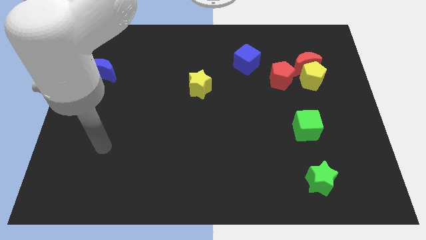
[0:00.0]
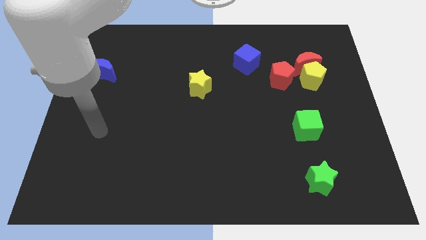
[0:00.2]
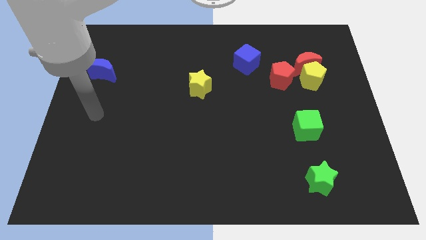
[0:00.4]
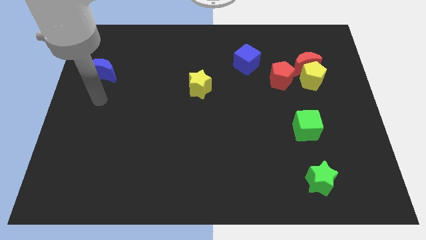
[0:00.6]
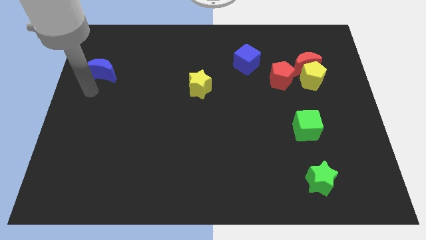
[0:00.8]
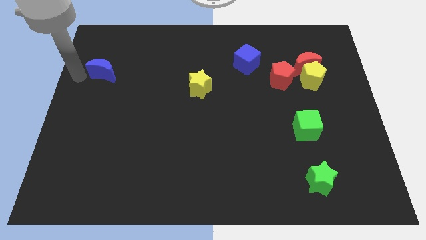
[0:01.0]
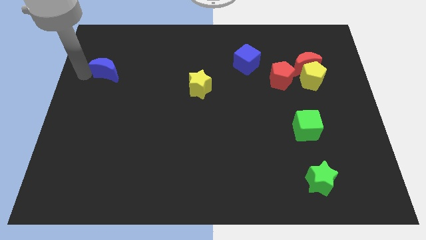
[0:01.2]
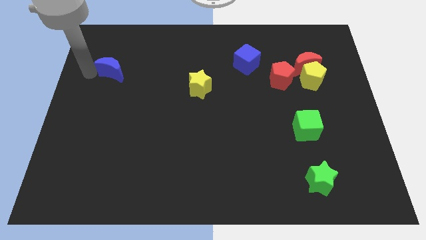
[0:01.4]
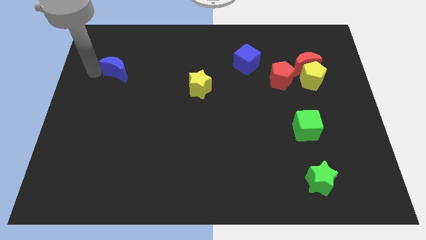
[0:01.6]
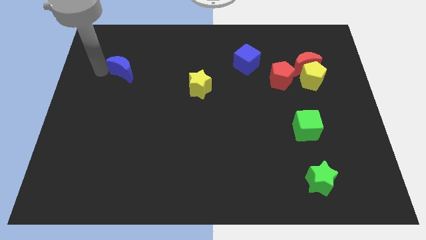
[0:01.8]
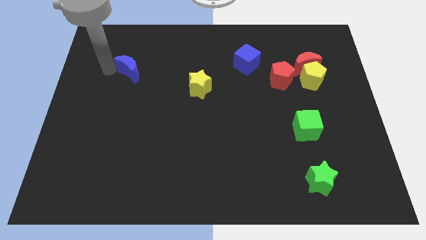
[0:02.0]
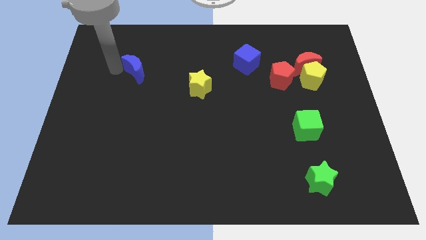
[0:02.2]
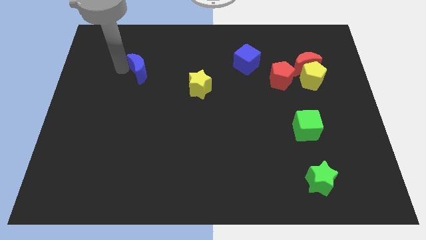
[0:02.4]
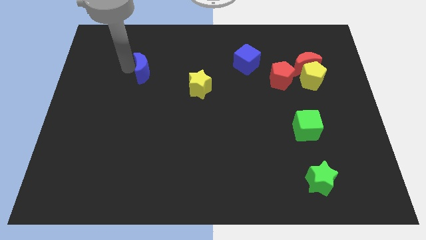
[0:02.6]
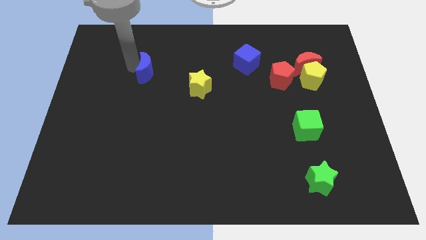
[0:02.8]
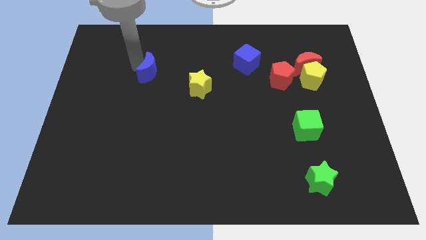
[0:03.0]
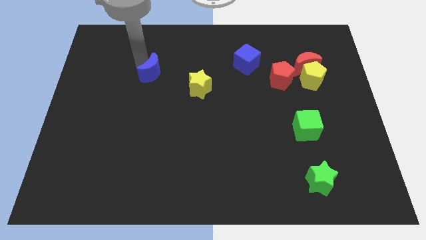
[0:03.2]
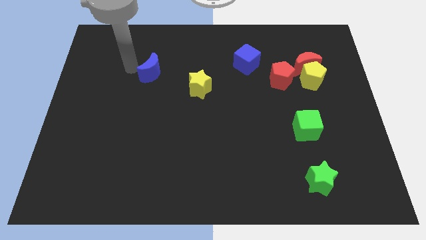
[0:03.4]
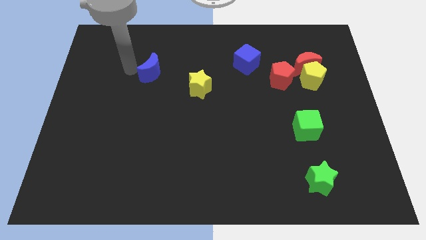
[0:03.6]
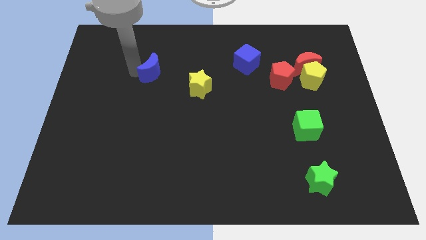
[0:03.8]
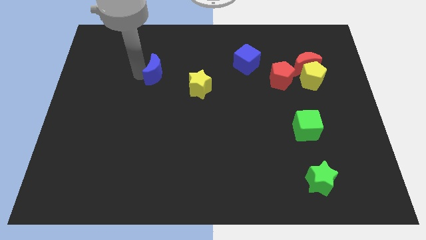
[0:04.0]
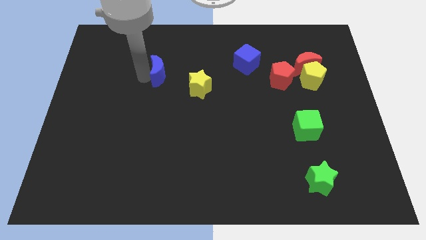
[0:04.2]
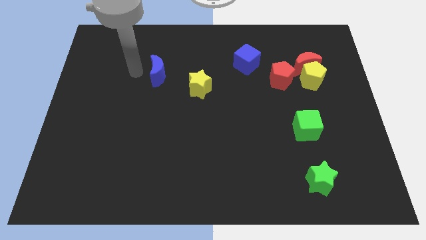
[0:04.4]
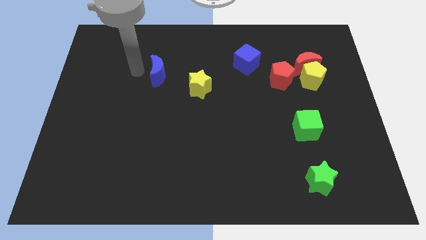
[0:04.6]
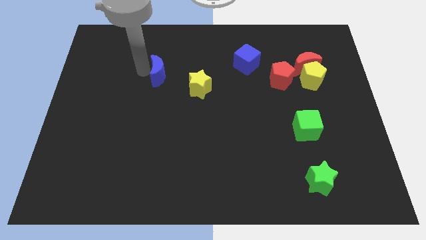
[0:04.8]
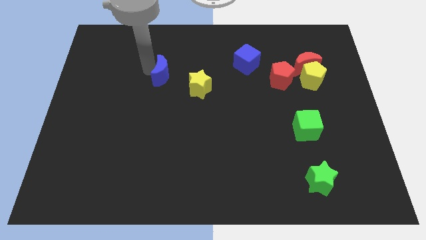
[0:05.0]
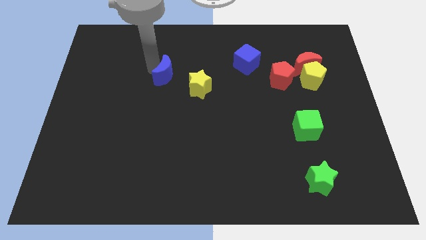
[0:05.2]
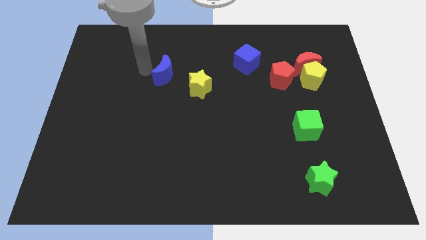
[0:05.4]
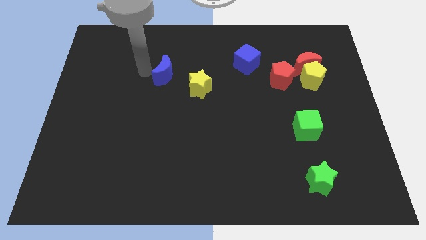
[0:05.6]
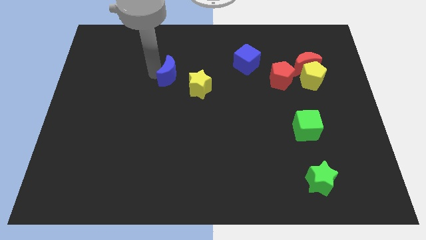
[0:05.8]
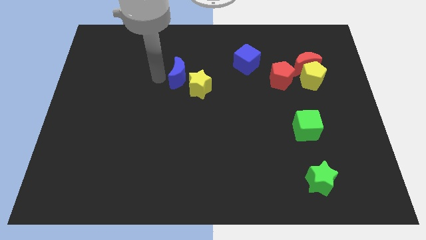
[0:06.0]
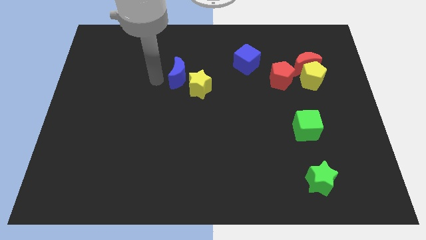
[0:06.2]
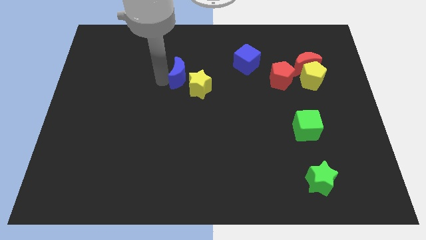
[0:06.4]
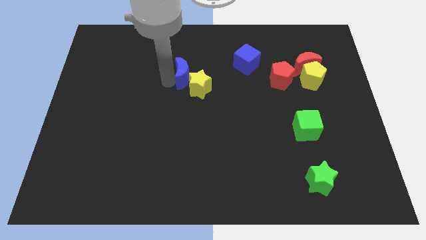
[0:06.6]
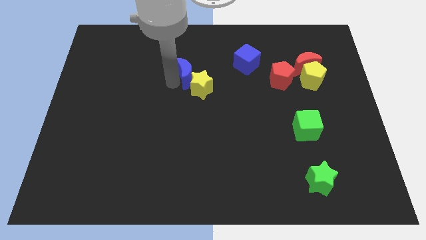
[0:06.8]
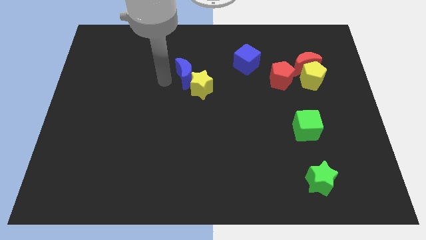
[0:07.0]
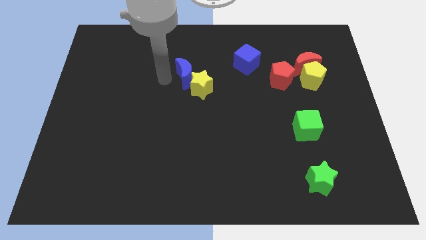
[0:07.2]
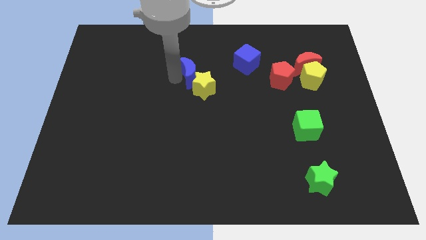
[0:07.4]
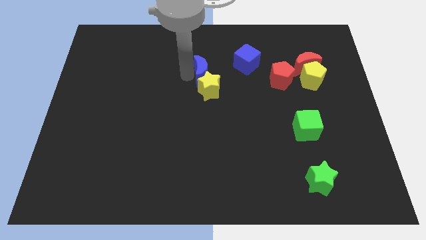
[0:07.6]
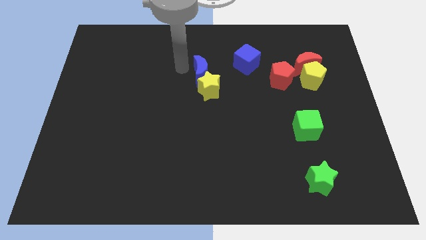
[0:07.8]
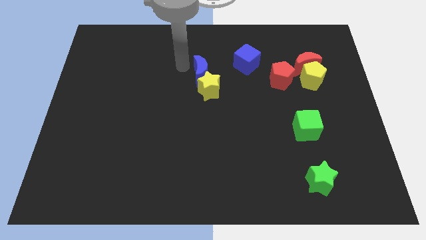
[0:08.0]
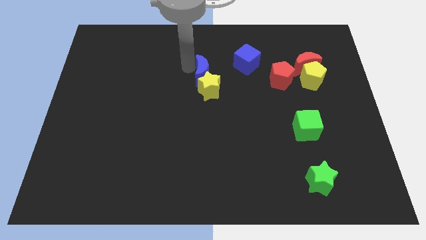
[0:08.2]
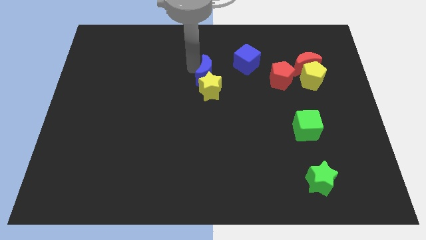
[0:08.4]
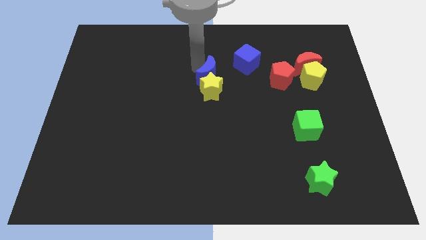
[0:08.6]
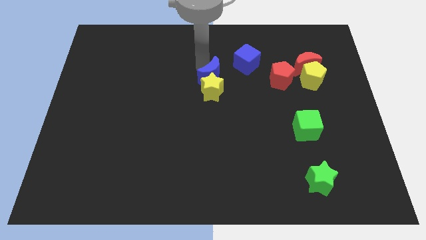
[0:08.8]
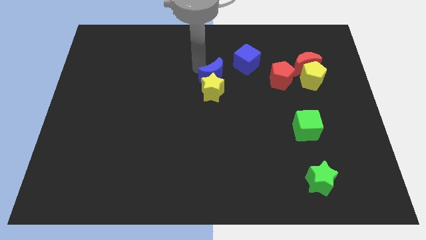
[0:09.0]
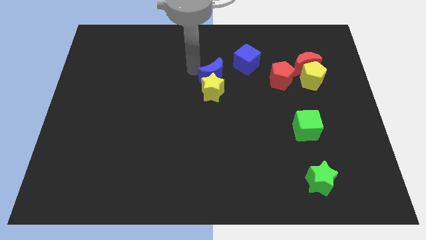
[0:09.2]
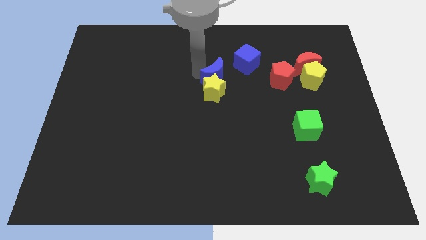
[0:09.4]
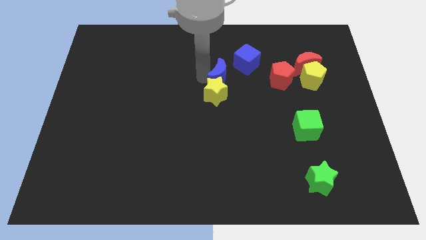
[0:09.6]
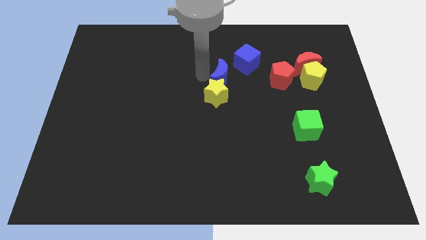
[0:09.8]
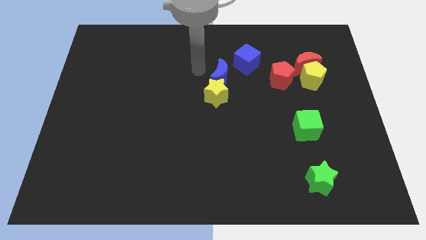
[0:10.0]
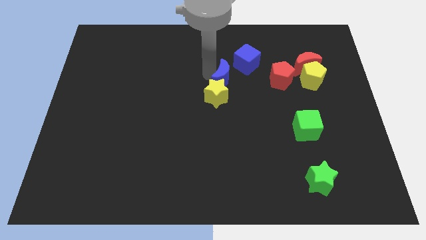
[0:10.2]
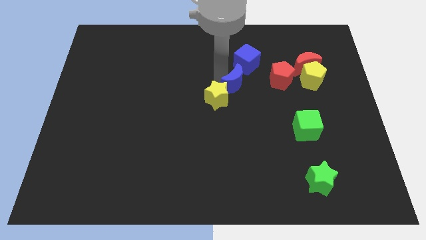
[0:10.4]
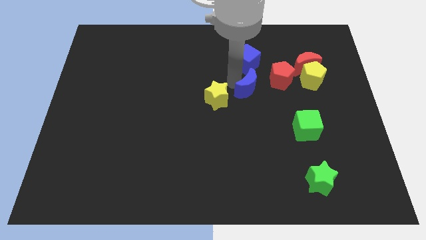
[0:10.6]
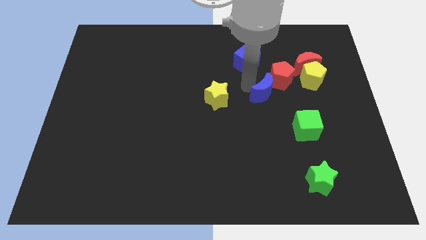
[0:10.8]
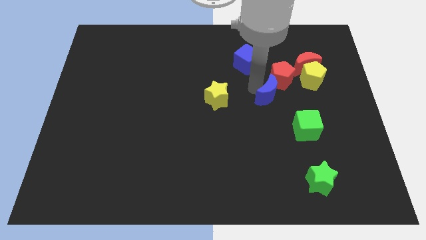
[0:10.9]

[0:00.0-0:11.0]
move the blue moon diagonally up and to the left of the green cube

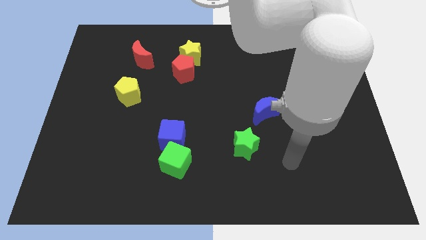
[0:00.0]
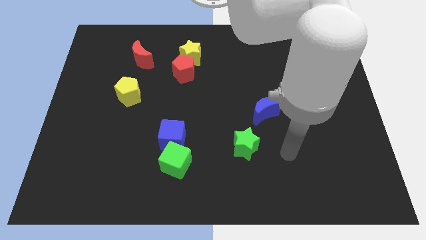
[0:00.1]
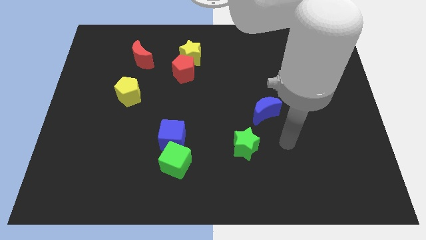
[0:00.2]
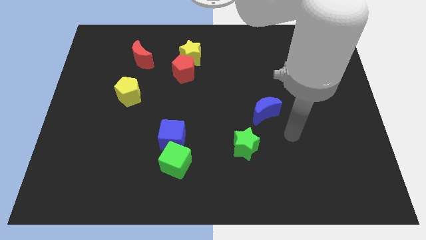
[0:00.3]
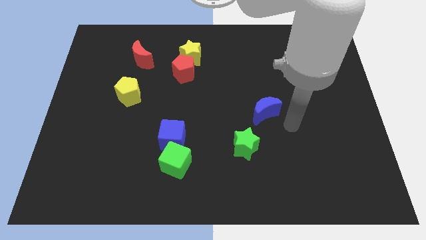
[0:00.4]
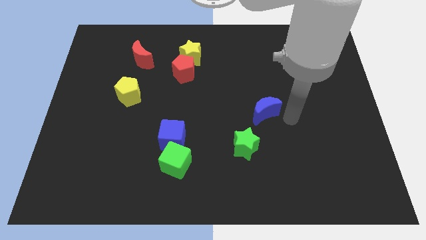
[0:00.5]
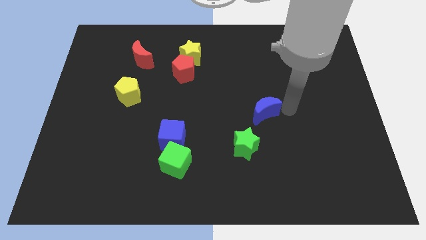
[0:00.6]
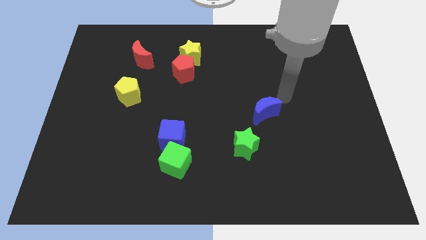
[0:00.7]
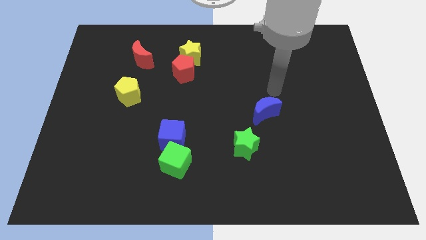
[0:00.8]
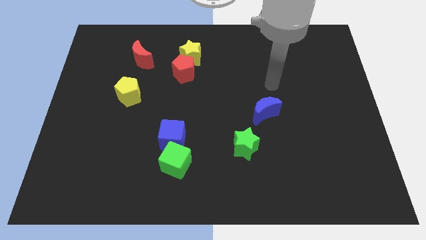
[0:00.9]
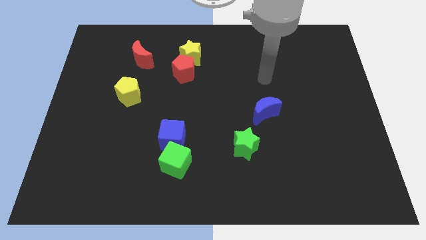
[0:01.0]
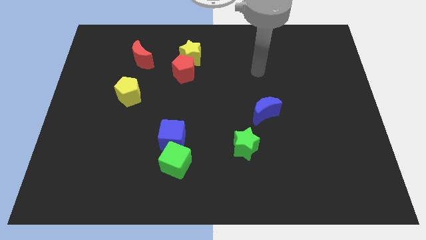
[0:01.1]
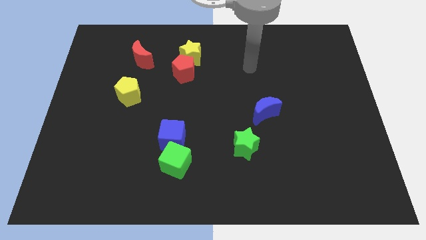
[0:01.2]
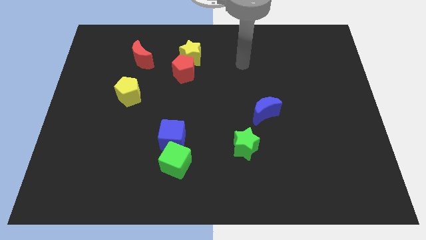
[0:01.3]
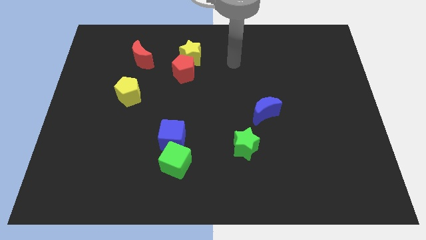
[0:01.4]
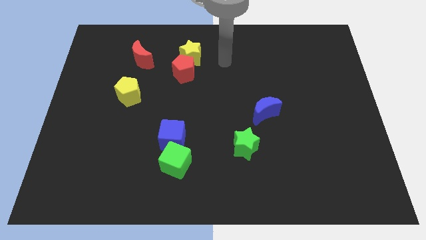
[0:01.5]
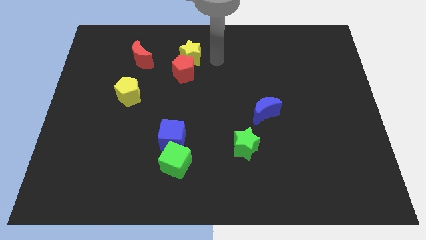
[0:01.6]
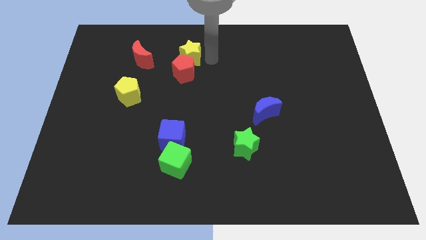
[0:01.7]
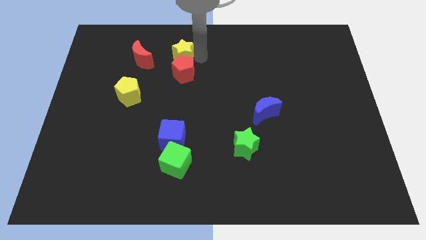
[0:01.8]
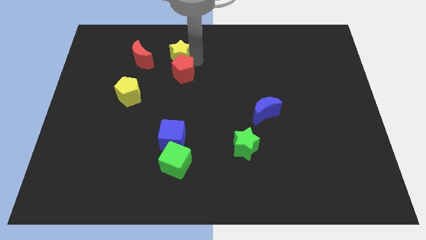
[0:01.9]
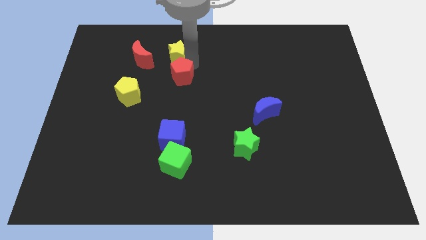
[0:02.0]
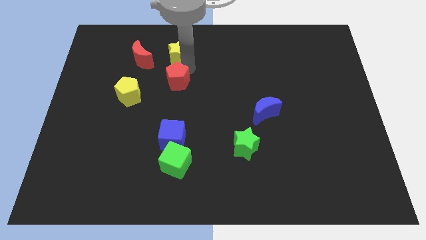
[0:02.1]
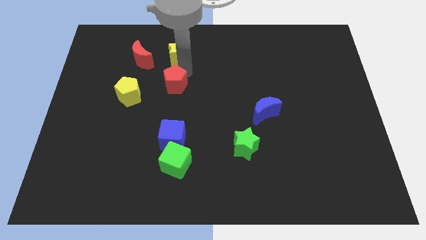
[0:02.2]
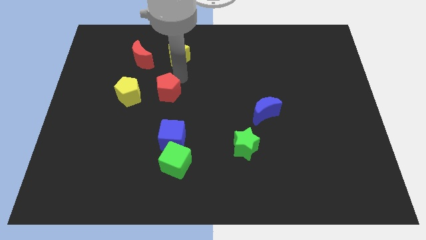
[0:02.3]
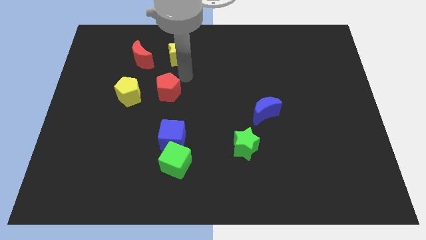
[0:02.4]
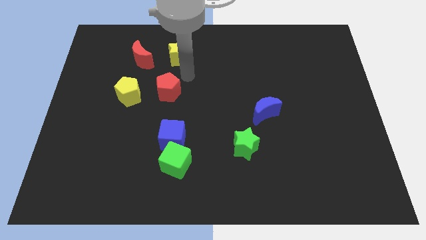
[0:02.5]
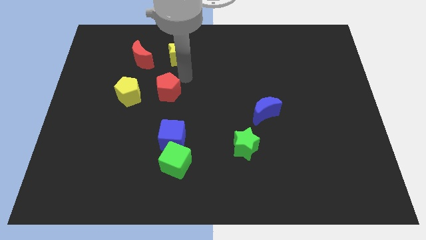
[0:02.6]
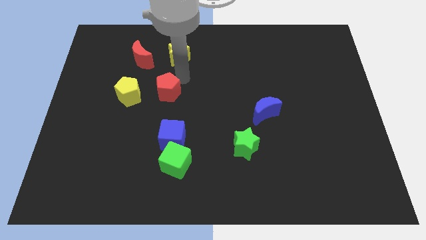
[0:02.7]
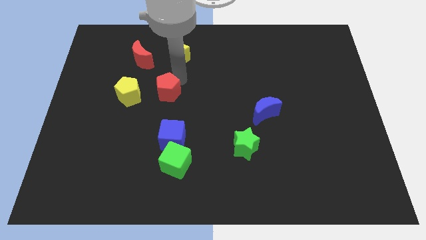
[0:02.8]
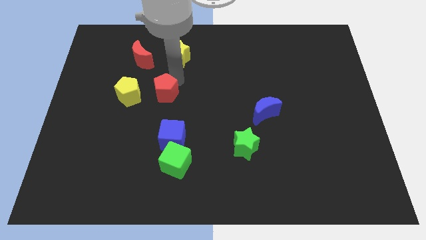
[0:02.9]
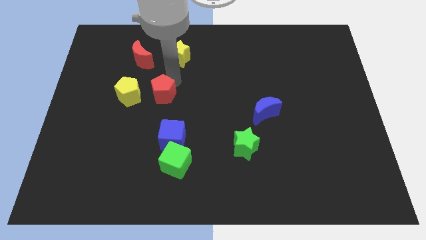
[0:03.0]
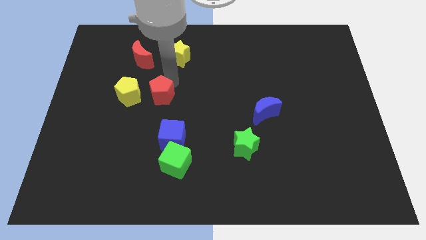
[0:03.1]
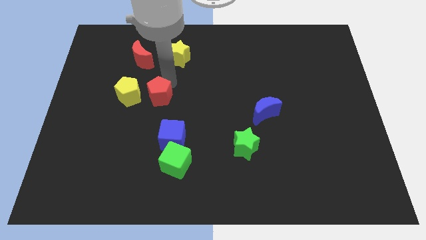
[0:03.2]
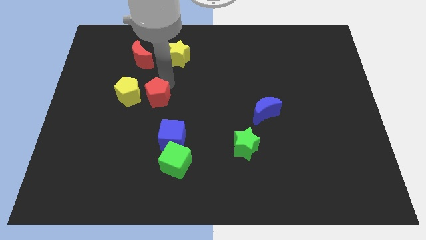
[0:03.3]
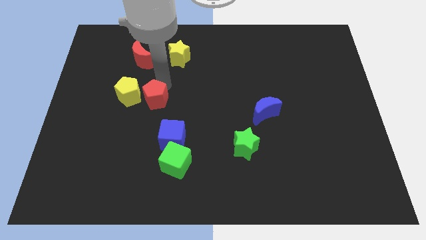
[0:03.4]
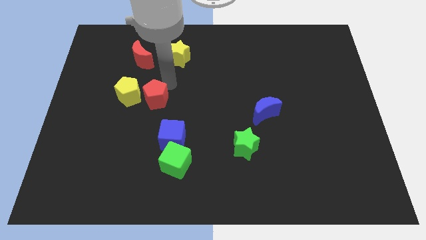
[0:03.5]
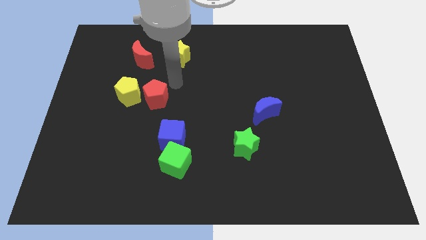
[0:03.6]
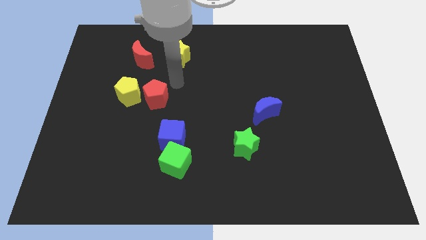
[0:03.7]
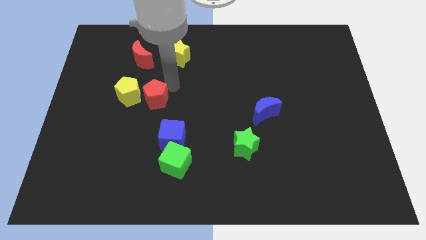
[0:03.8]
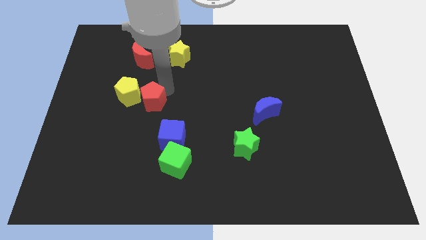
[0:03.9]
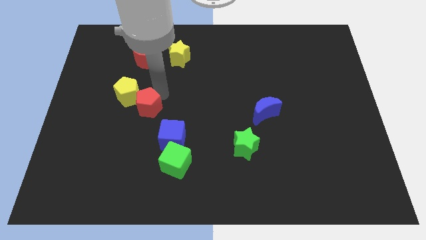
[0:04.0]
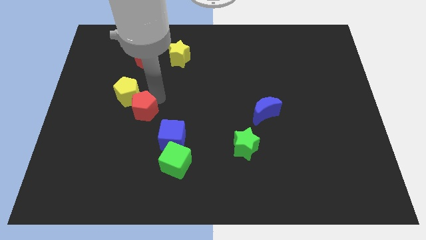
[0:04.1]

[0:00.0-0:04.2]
move the red pentagon to the bottom side of the yellow pentagon
